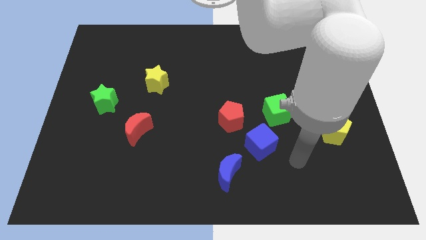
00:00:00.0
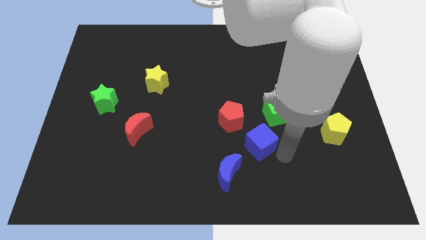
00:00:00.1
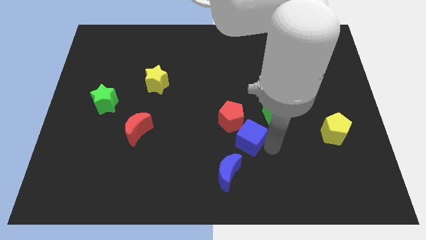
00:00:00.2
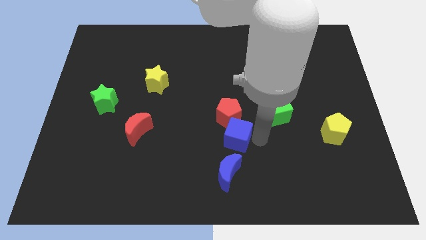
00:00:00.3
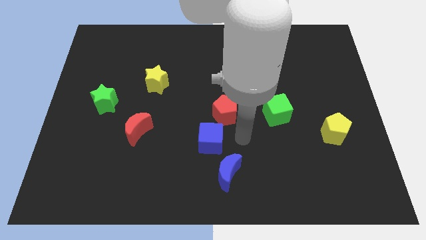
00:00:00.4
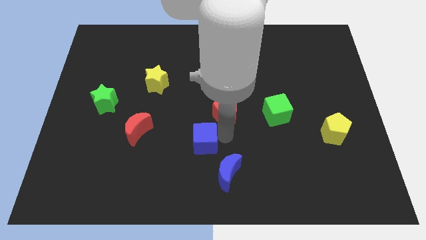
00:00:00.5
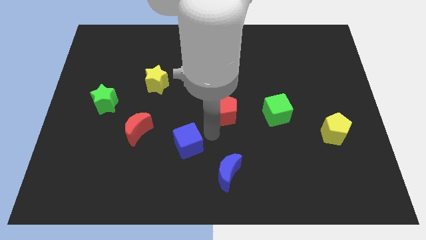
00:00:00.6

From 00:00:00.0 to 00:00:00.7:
move the red pentagon away from the blue cube

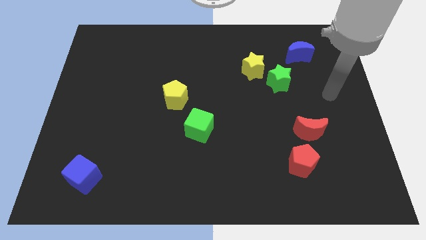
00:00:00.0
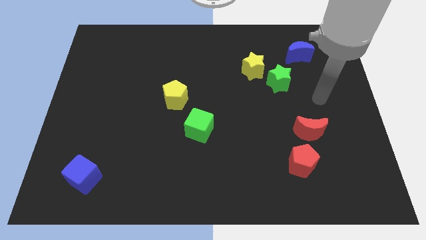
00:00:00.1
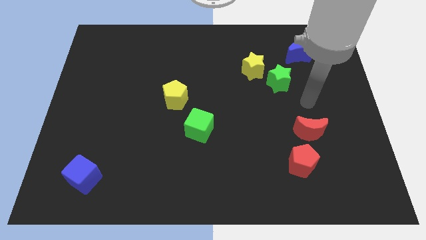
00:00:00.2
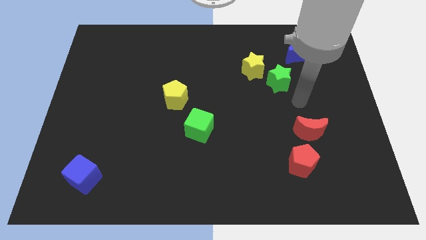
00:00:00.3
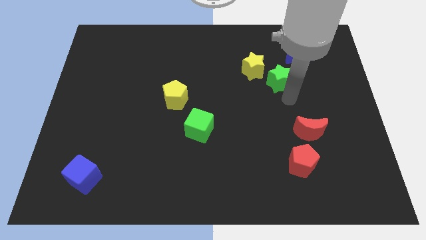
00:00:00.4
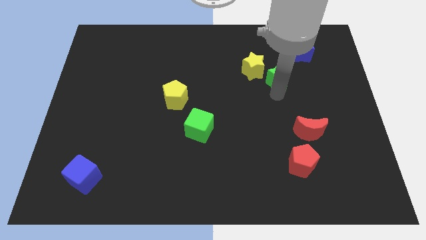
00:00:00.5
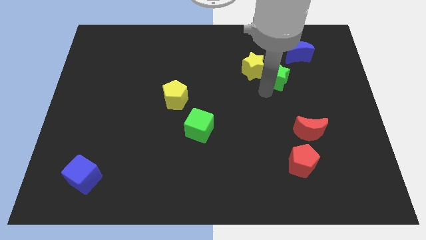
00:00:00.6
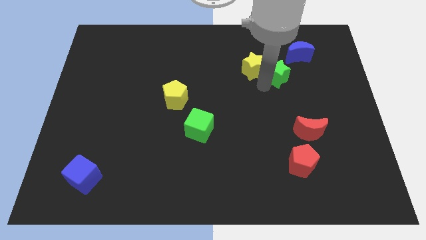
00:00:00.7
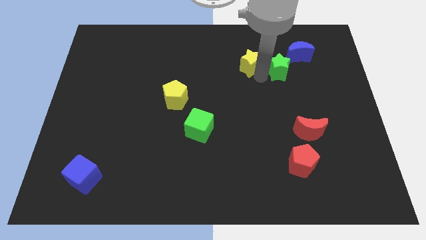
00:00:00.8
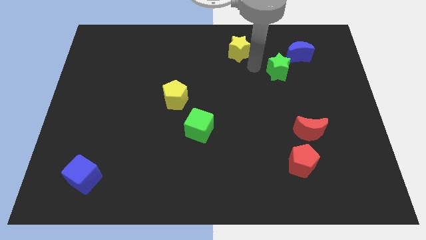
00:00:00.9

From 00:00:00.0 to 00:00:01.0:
move the green star away from the yellow star

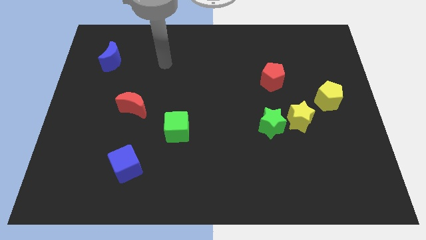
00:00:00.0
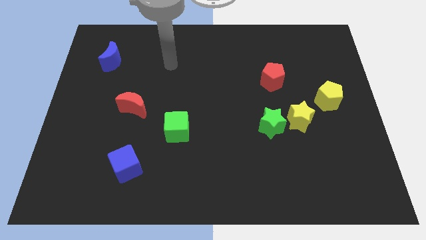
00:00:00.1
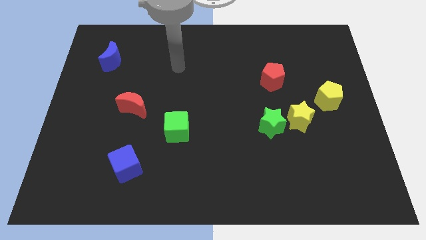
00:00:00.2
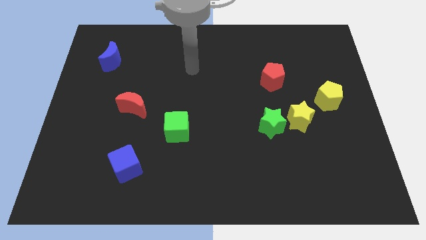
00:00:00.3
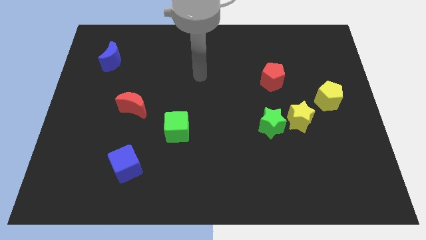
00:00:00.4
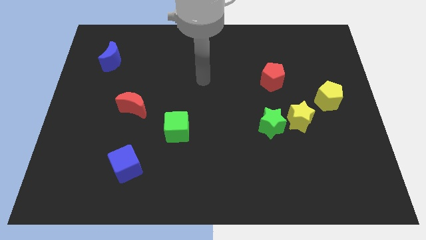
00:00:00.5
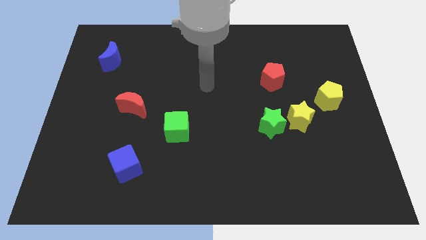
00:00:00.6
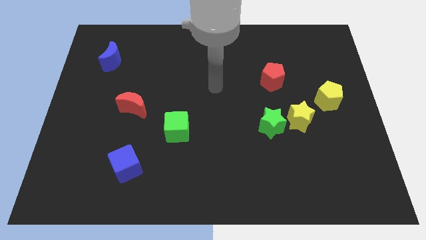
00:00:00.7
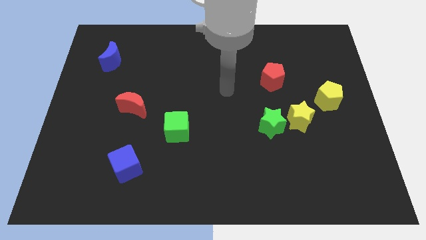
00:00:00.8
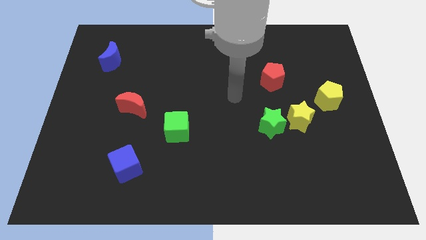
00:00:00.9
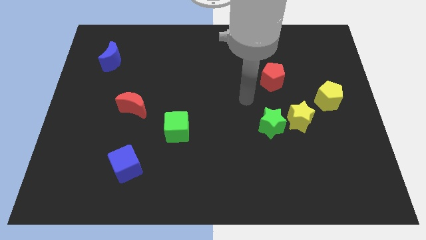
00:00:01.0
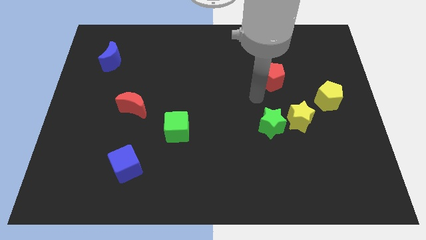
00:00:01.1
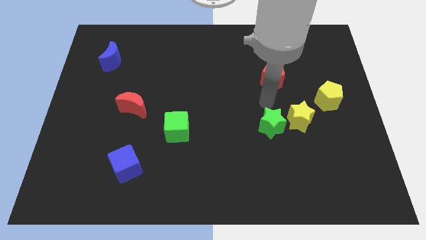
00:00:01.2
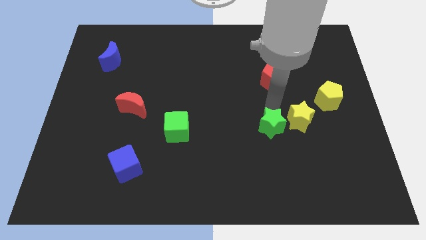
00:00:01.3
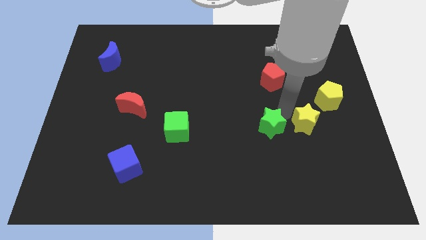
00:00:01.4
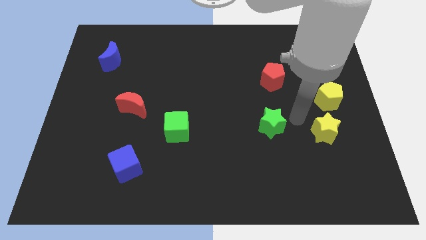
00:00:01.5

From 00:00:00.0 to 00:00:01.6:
separate the green star from the yellow star

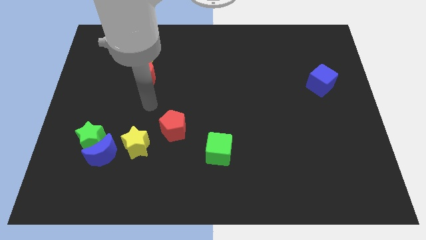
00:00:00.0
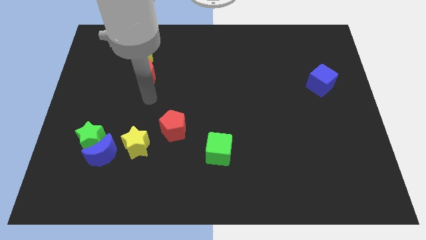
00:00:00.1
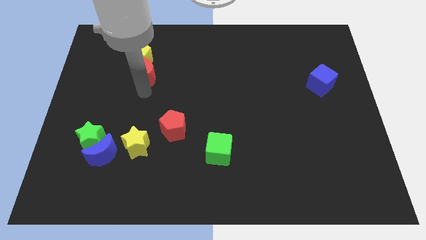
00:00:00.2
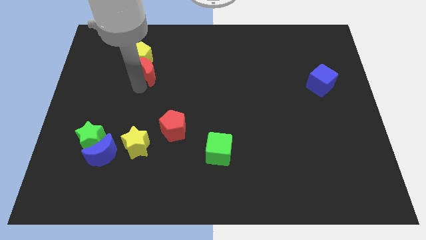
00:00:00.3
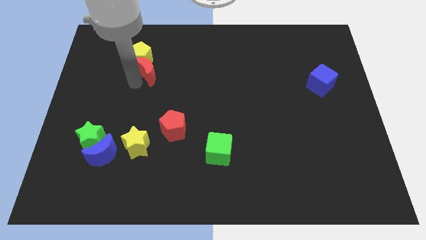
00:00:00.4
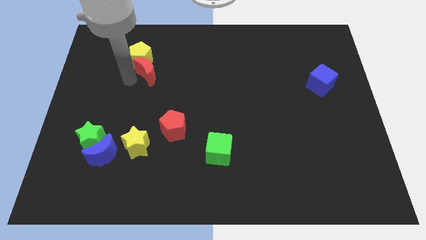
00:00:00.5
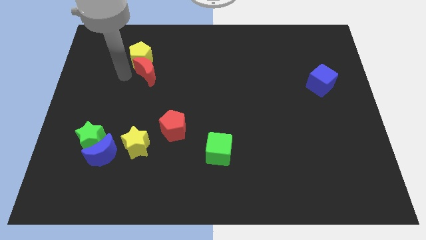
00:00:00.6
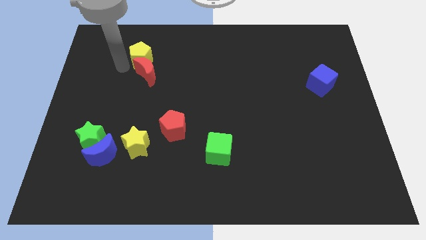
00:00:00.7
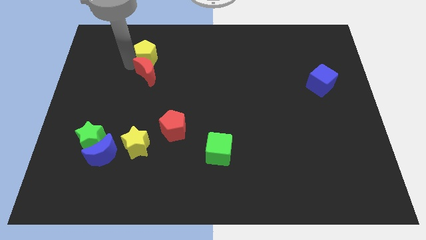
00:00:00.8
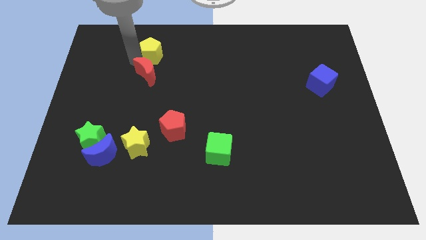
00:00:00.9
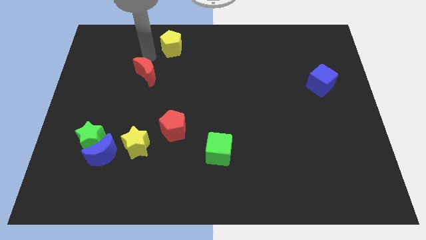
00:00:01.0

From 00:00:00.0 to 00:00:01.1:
pull the red moon apart from the yellow pentagon

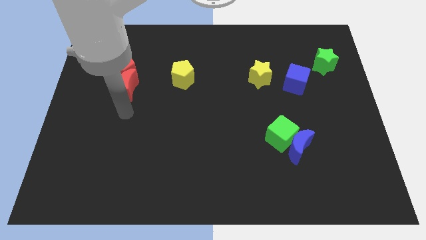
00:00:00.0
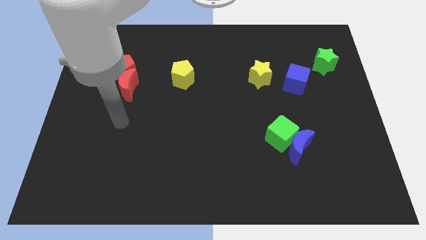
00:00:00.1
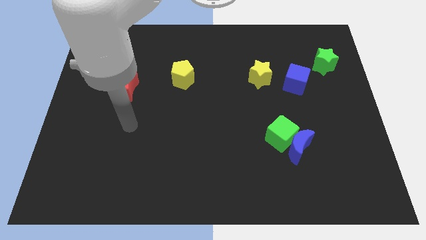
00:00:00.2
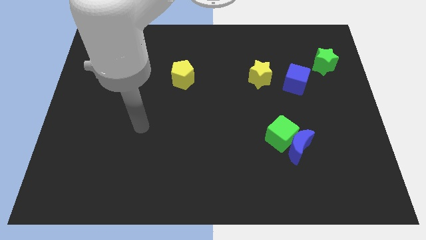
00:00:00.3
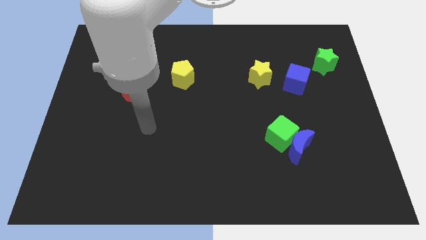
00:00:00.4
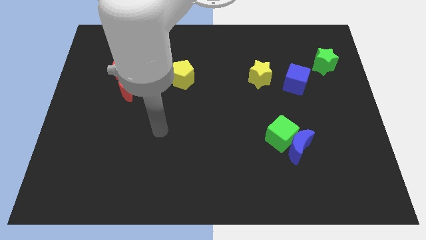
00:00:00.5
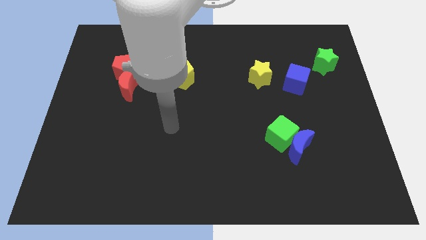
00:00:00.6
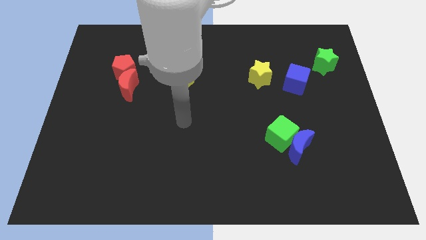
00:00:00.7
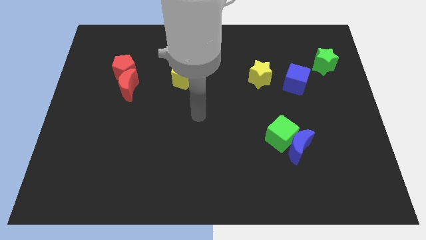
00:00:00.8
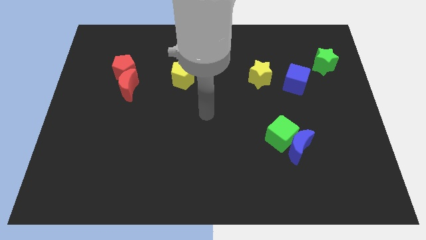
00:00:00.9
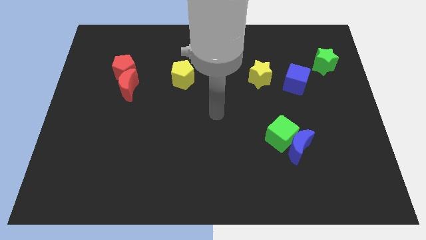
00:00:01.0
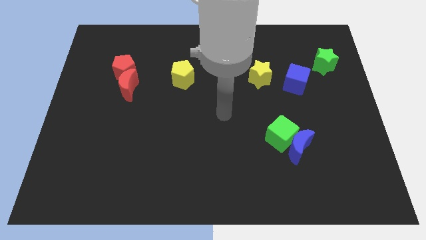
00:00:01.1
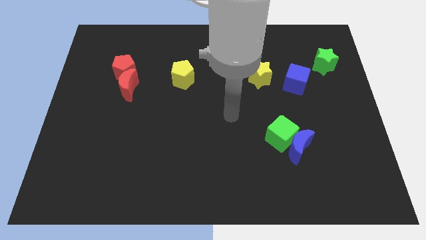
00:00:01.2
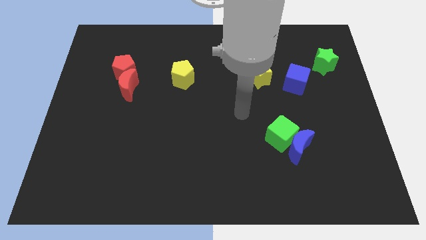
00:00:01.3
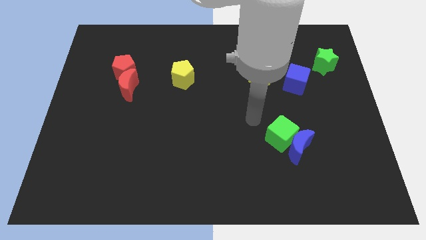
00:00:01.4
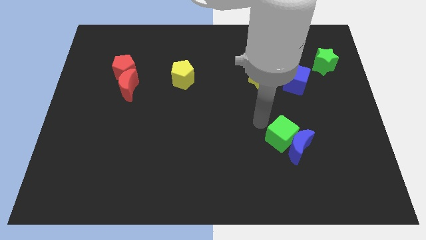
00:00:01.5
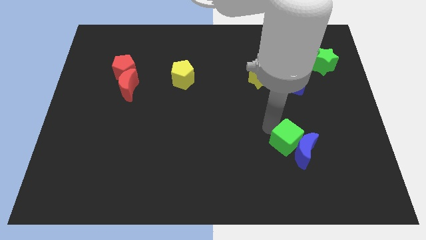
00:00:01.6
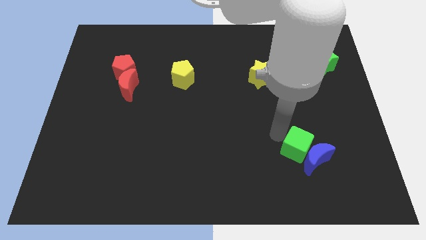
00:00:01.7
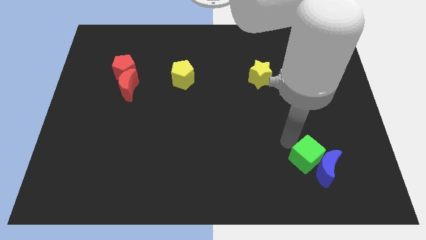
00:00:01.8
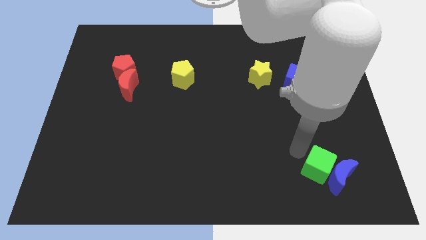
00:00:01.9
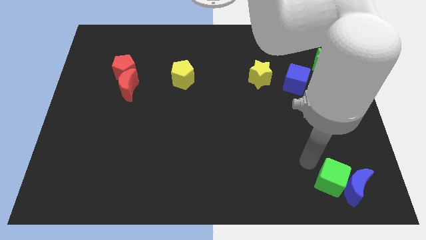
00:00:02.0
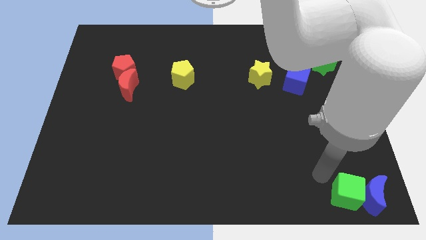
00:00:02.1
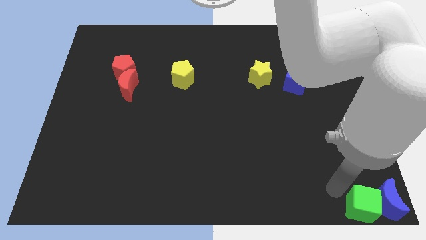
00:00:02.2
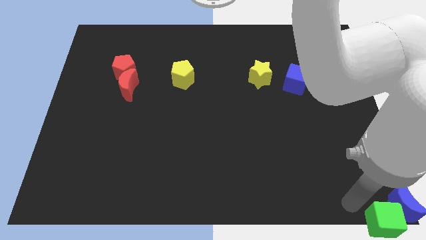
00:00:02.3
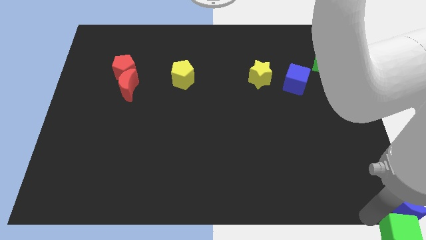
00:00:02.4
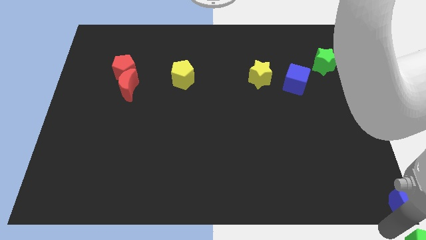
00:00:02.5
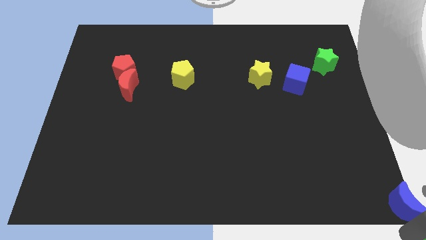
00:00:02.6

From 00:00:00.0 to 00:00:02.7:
move the blue moon away from the green cube

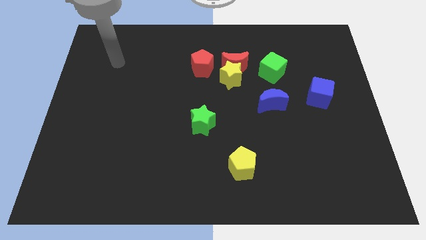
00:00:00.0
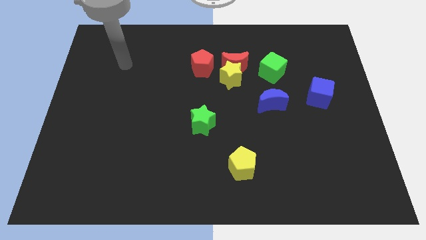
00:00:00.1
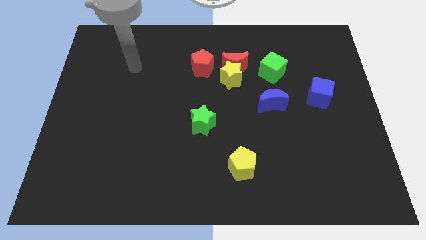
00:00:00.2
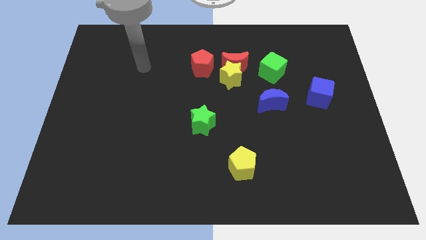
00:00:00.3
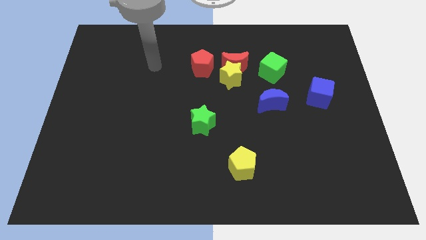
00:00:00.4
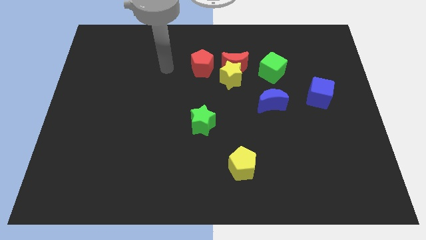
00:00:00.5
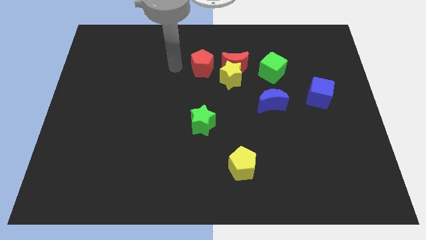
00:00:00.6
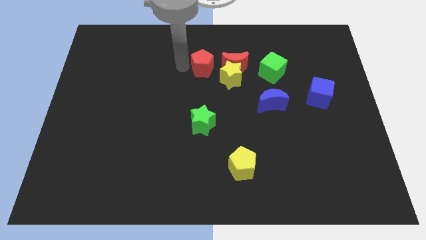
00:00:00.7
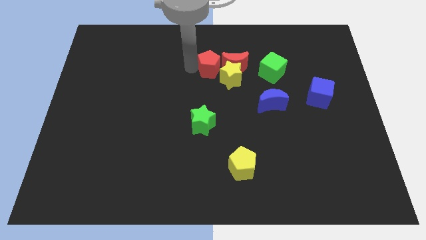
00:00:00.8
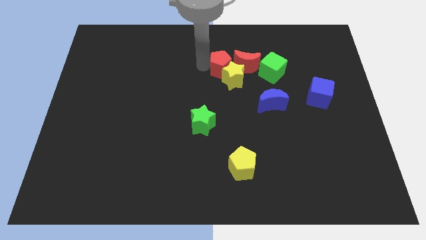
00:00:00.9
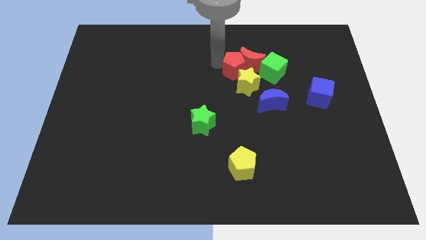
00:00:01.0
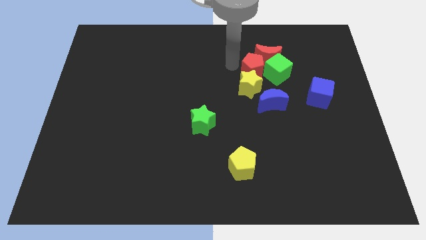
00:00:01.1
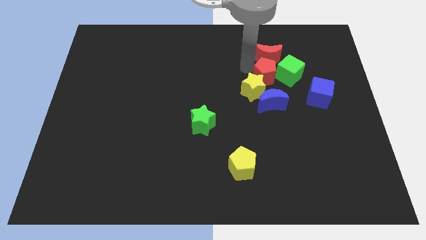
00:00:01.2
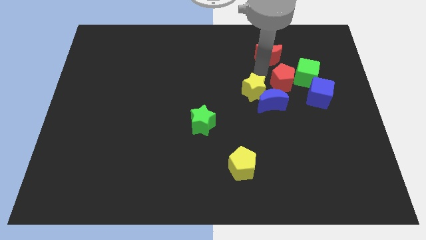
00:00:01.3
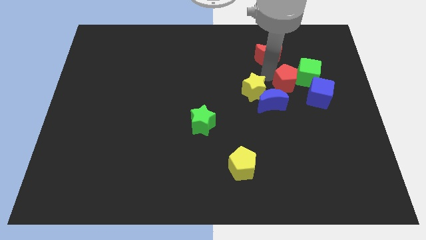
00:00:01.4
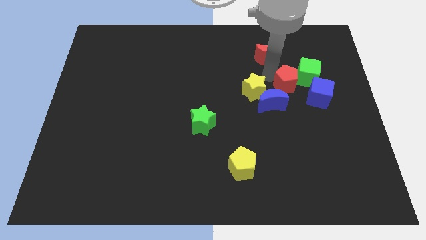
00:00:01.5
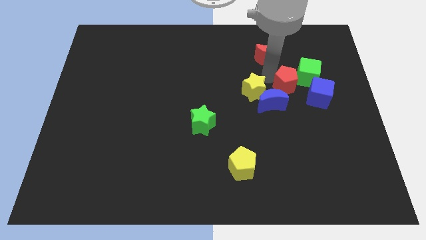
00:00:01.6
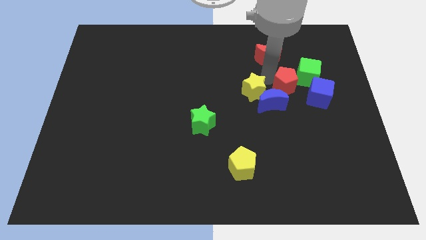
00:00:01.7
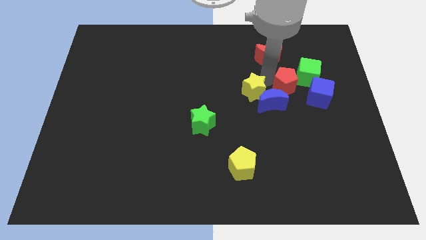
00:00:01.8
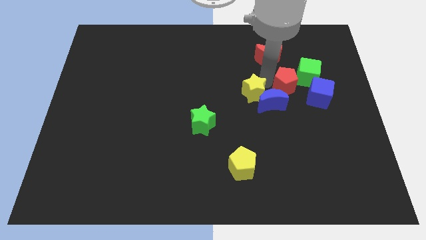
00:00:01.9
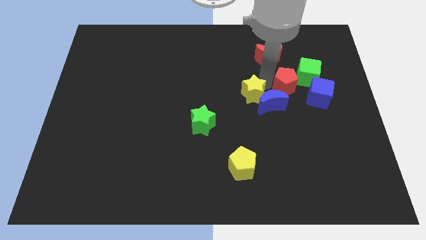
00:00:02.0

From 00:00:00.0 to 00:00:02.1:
separate the yellow star from the red moon and red pentagon
